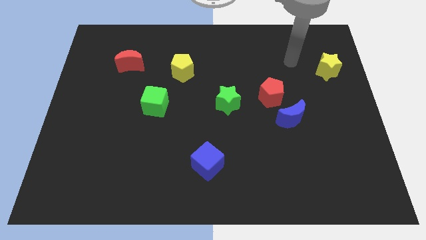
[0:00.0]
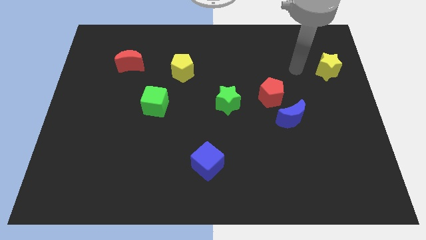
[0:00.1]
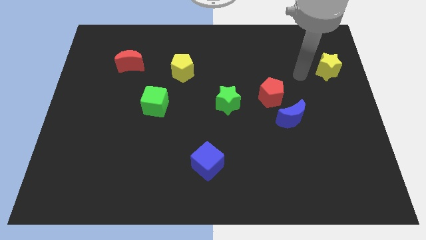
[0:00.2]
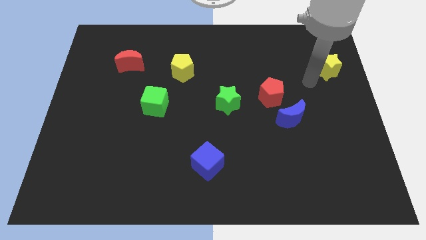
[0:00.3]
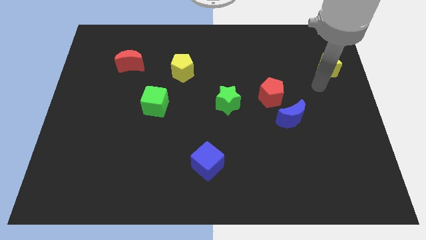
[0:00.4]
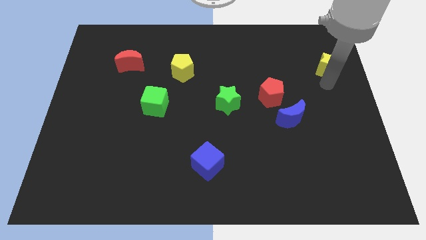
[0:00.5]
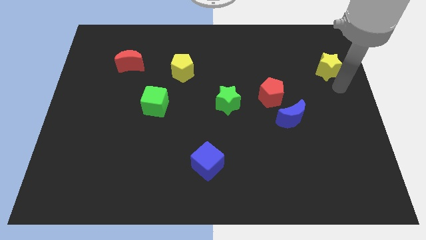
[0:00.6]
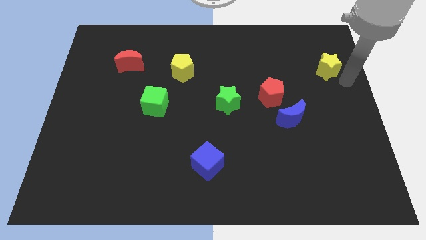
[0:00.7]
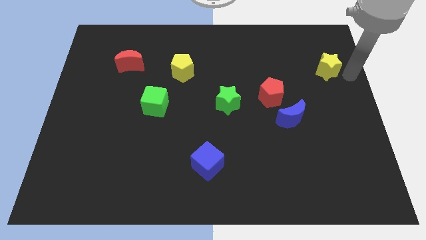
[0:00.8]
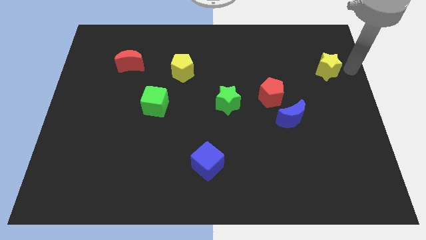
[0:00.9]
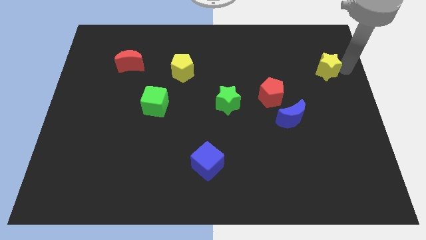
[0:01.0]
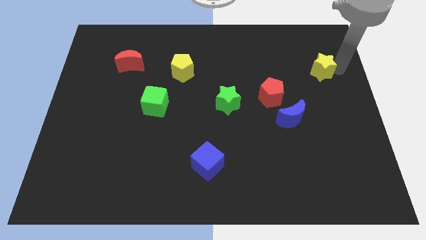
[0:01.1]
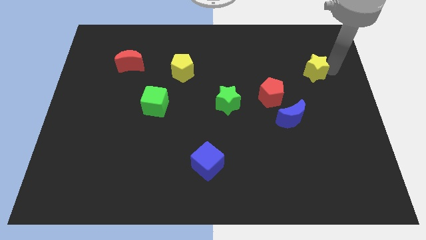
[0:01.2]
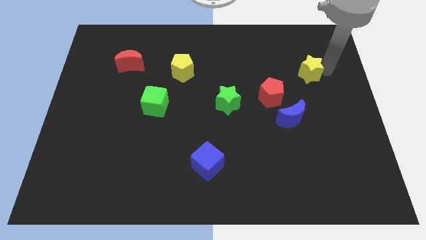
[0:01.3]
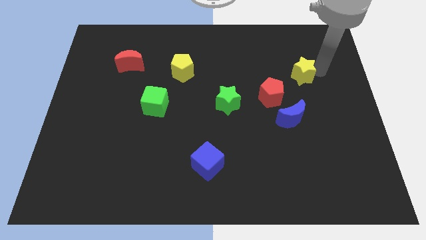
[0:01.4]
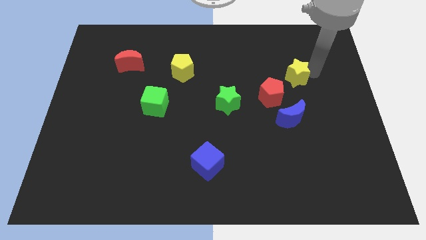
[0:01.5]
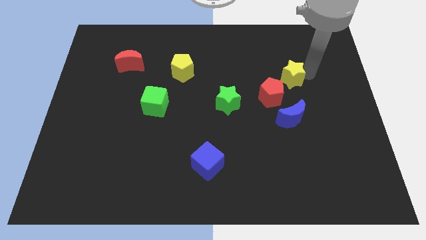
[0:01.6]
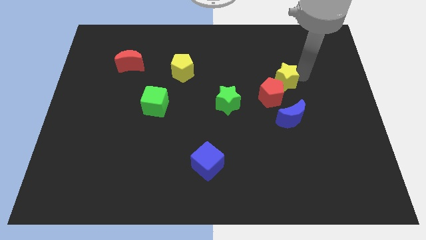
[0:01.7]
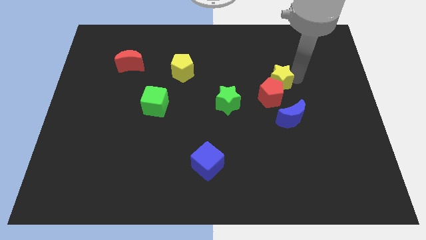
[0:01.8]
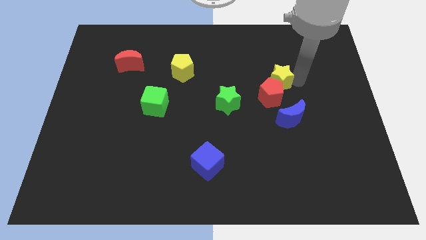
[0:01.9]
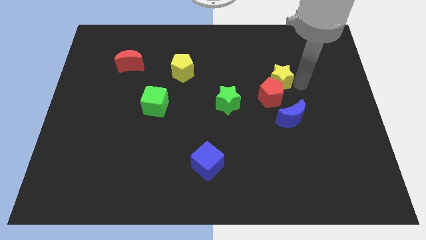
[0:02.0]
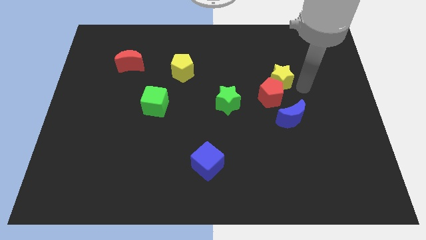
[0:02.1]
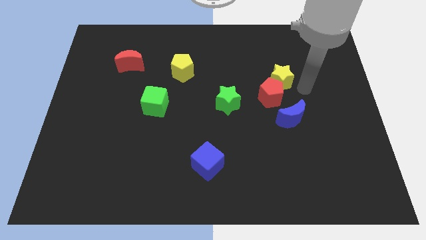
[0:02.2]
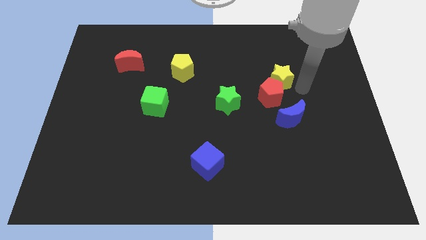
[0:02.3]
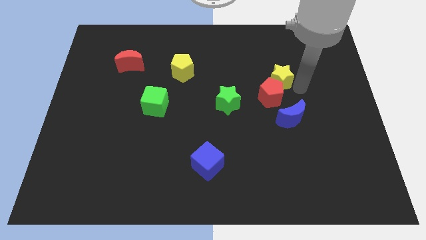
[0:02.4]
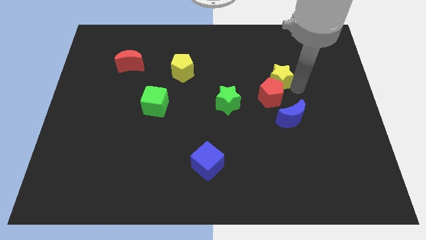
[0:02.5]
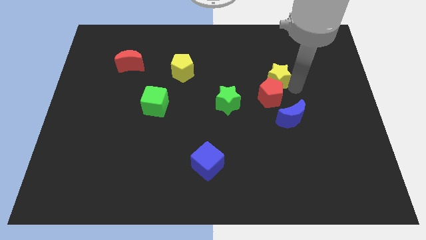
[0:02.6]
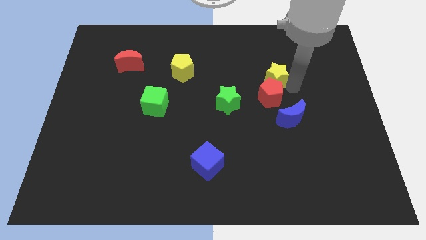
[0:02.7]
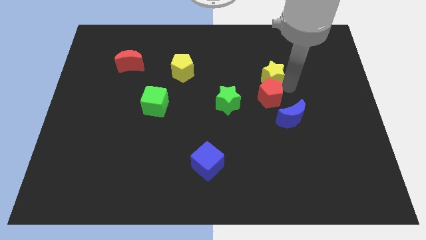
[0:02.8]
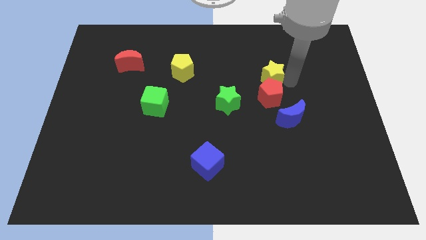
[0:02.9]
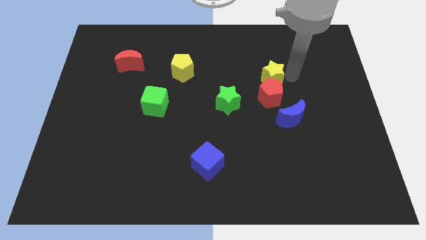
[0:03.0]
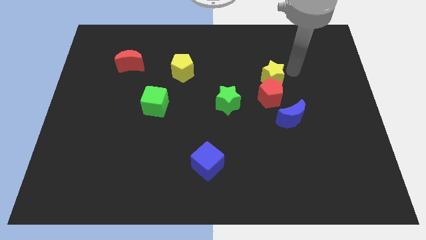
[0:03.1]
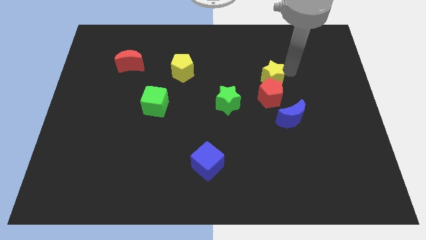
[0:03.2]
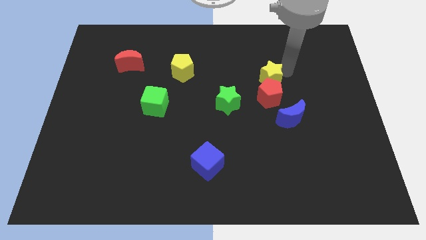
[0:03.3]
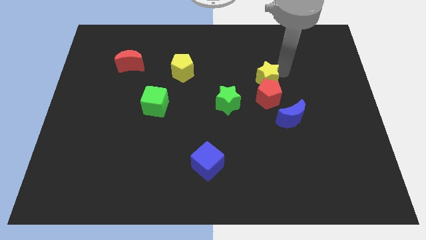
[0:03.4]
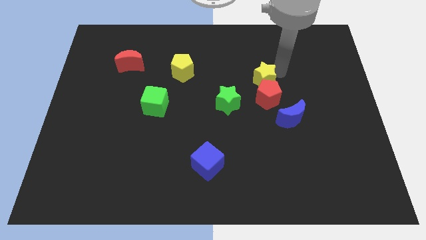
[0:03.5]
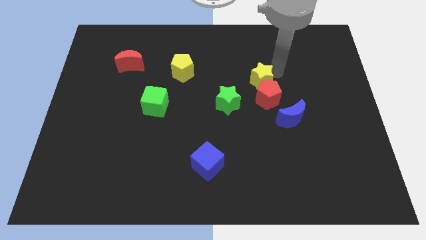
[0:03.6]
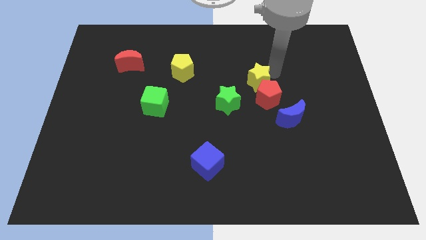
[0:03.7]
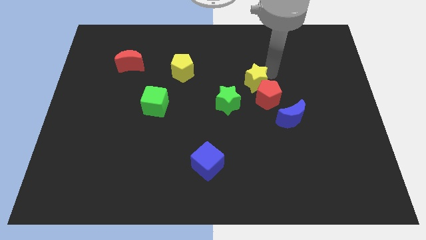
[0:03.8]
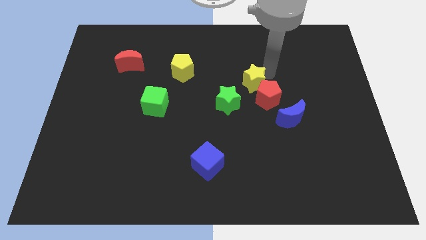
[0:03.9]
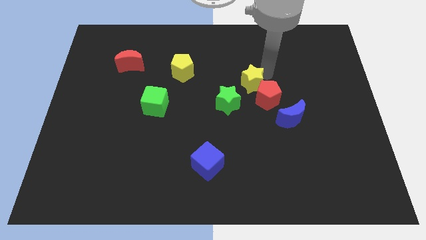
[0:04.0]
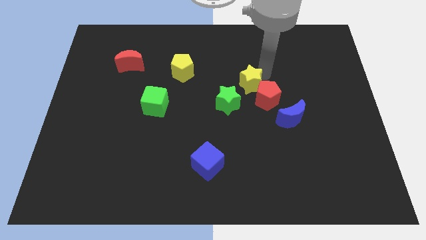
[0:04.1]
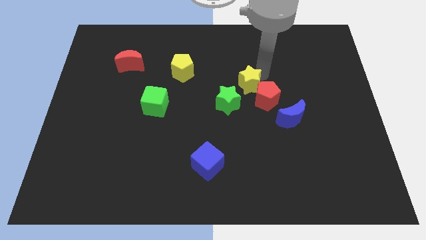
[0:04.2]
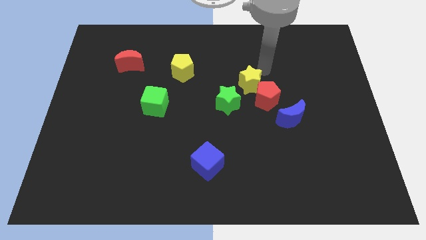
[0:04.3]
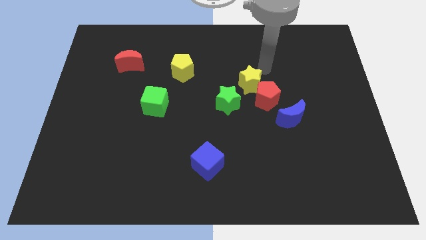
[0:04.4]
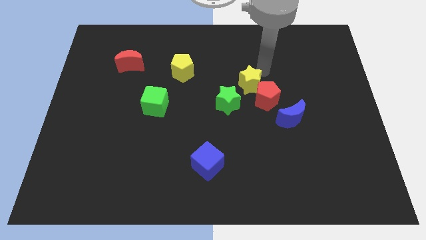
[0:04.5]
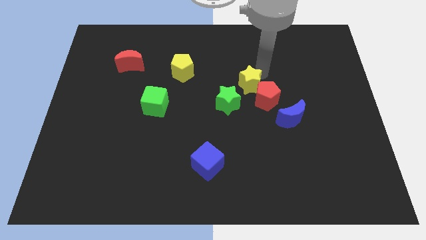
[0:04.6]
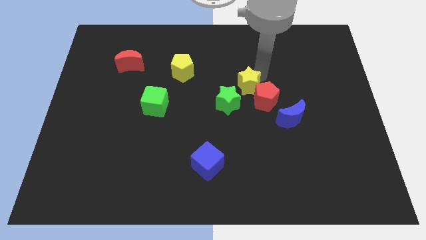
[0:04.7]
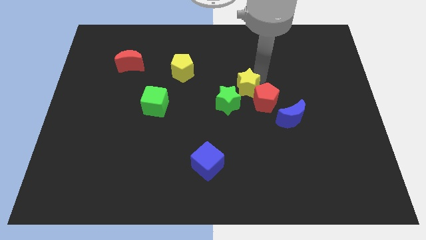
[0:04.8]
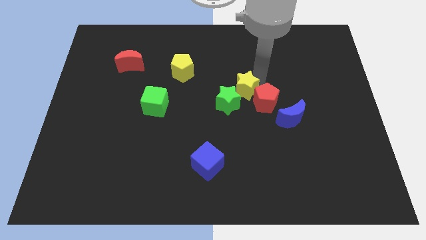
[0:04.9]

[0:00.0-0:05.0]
slide the yellow star next to the green star

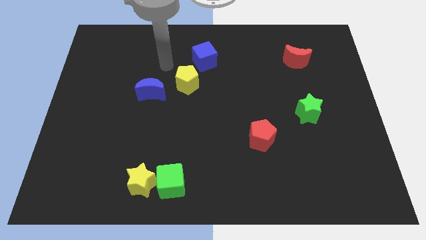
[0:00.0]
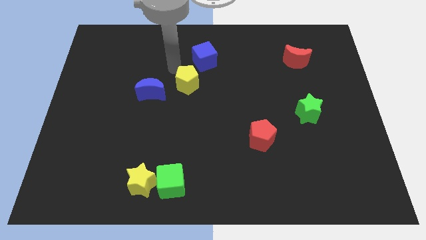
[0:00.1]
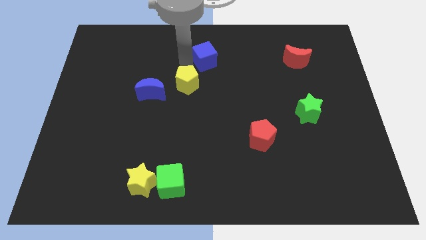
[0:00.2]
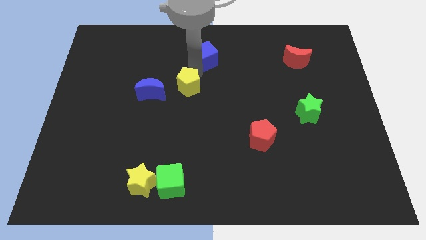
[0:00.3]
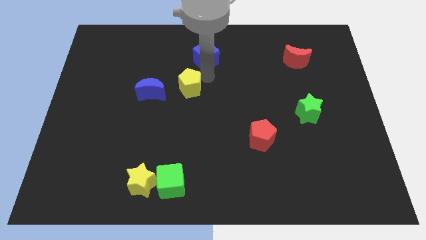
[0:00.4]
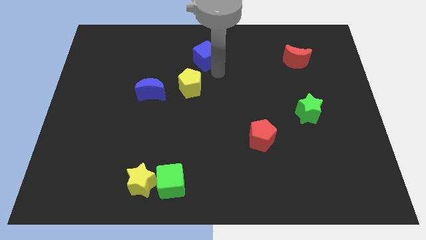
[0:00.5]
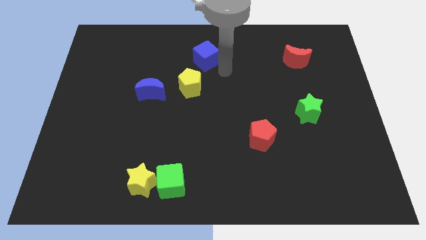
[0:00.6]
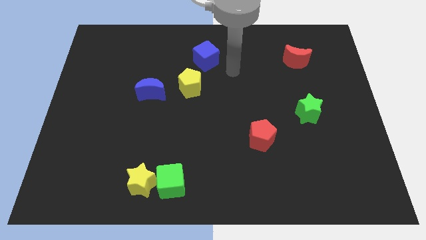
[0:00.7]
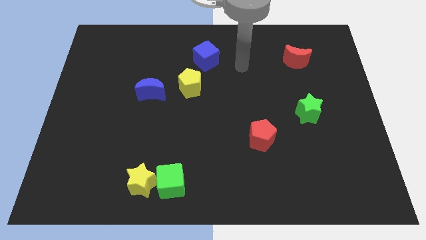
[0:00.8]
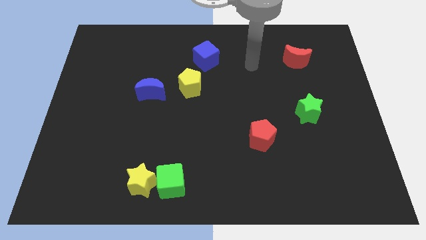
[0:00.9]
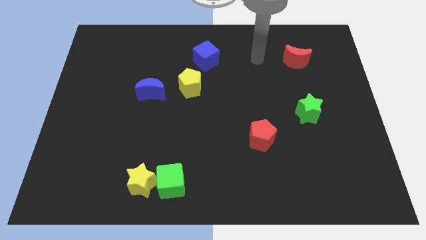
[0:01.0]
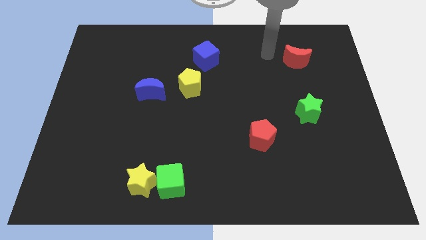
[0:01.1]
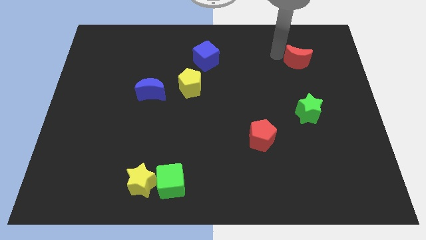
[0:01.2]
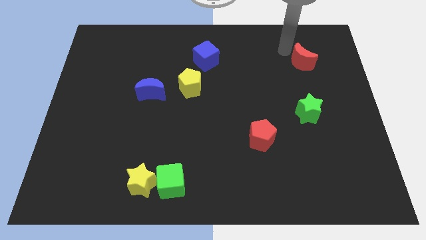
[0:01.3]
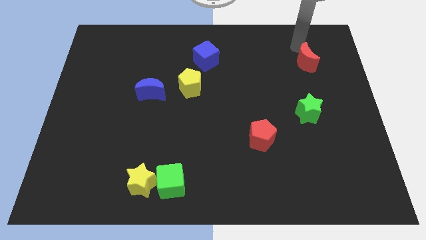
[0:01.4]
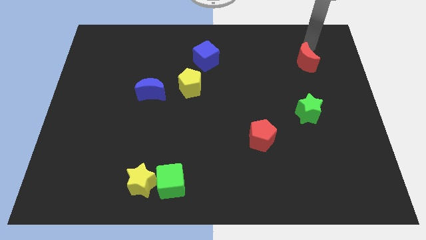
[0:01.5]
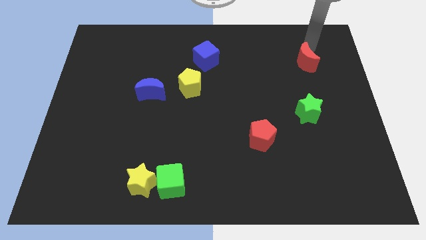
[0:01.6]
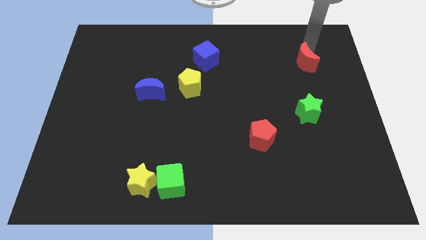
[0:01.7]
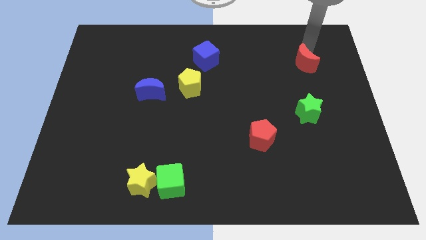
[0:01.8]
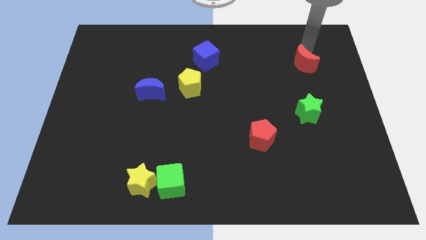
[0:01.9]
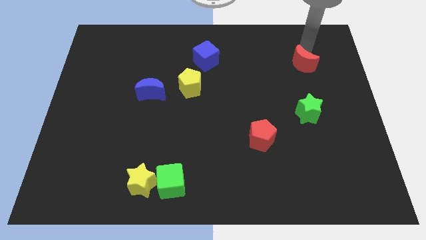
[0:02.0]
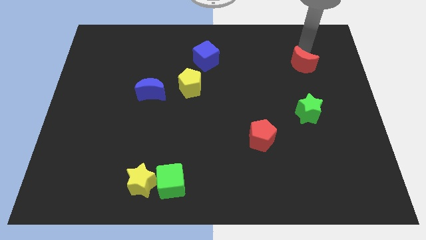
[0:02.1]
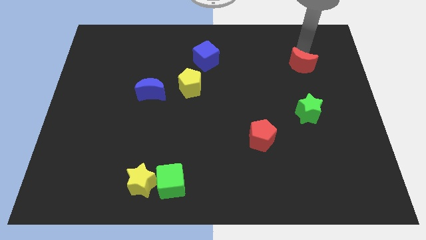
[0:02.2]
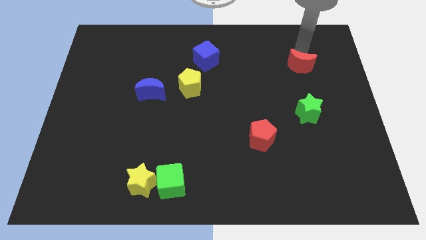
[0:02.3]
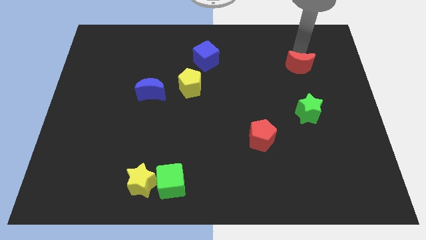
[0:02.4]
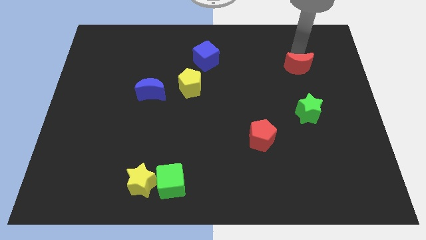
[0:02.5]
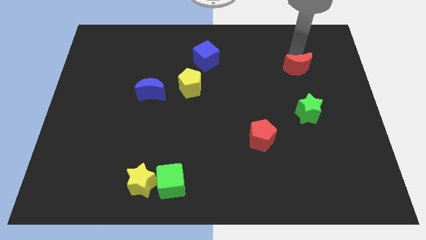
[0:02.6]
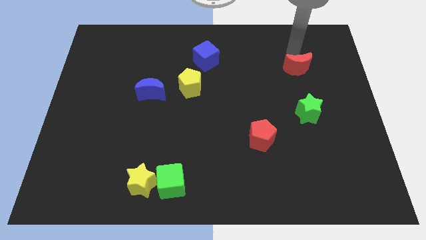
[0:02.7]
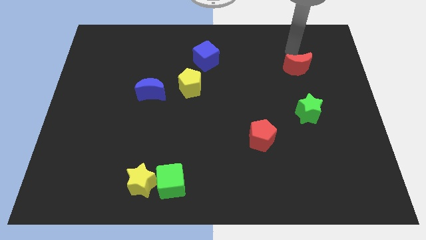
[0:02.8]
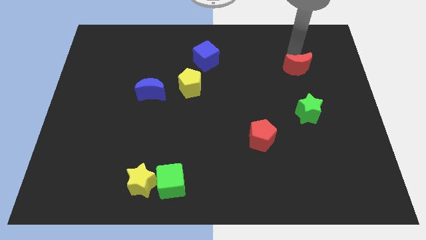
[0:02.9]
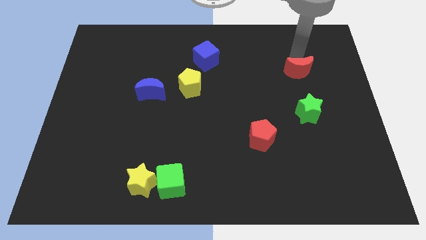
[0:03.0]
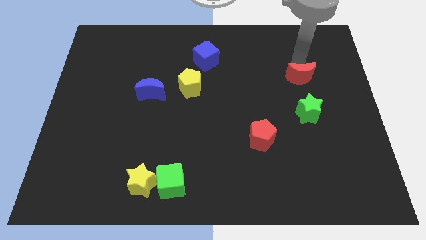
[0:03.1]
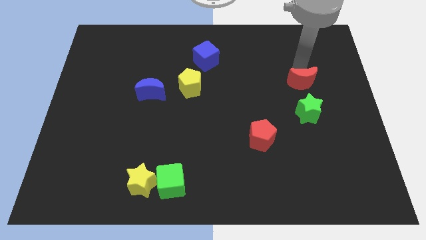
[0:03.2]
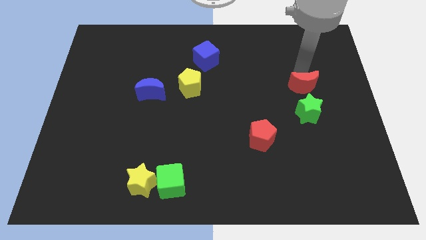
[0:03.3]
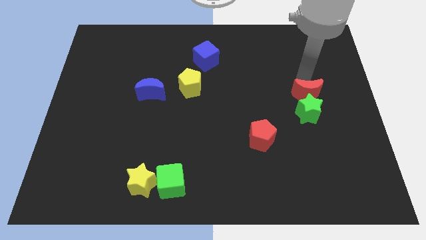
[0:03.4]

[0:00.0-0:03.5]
slide the red moon next to the green star
